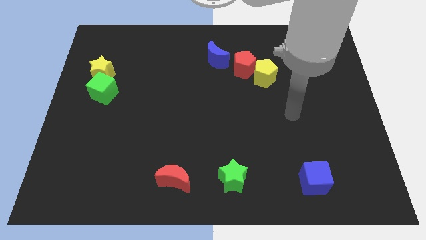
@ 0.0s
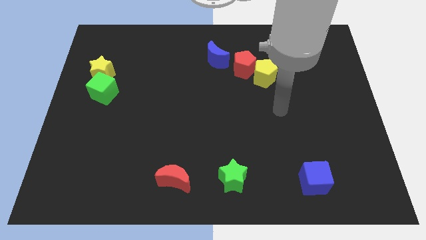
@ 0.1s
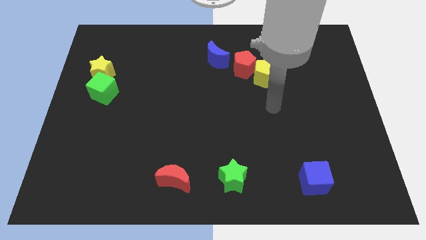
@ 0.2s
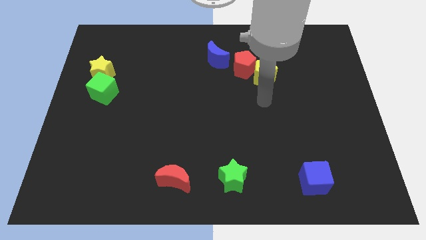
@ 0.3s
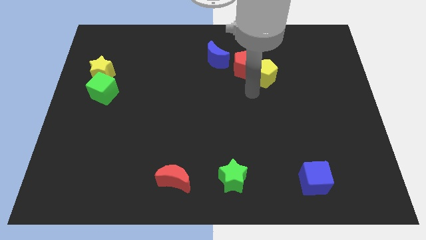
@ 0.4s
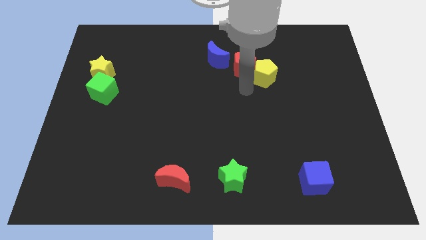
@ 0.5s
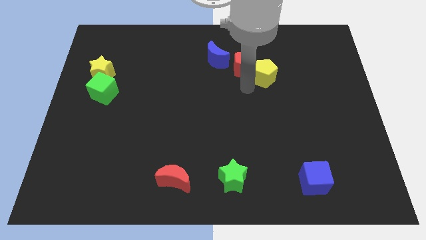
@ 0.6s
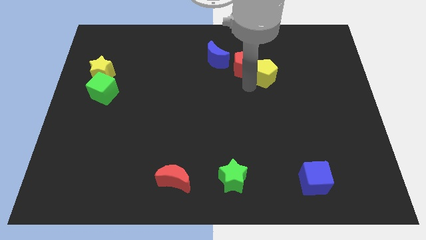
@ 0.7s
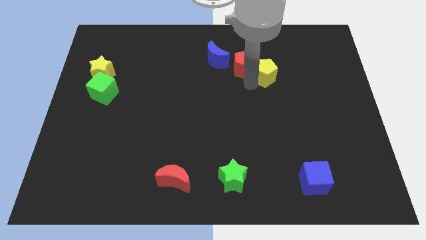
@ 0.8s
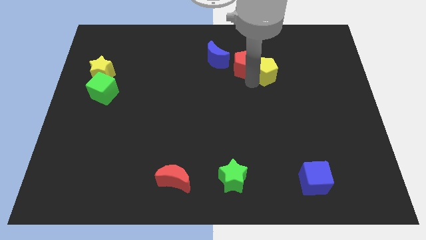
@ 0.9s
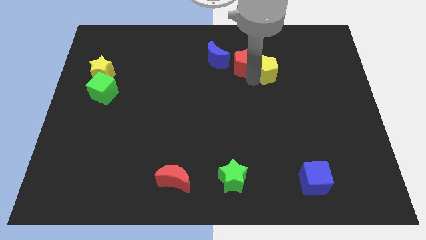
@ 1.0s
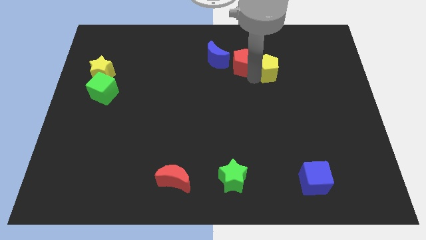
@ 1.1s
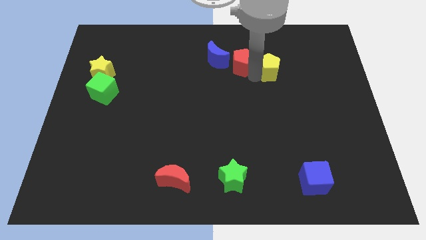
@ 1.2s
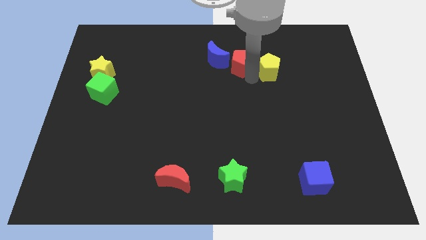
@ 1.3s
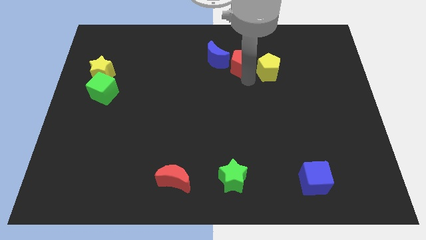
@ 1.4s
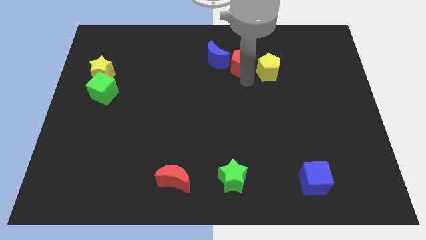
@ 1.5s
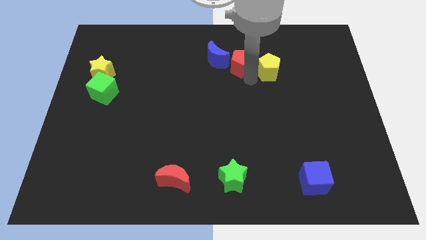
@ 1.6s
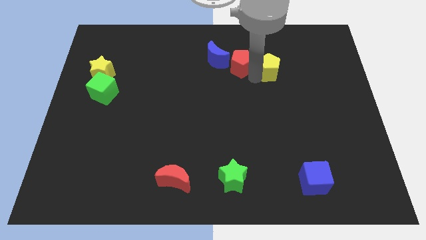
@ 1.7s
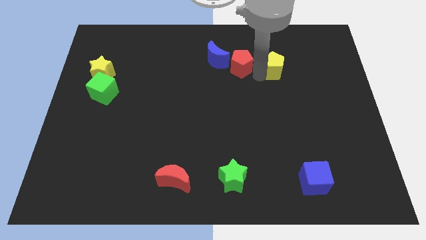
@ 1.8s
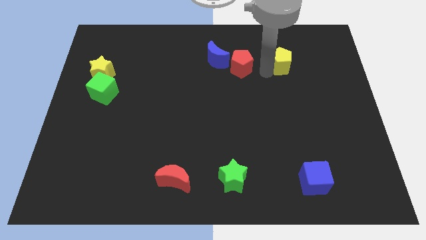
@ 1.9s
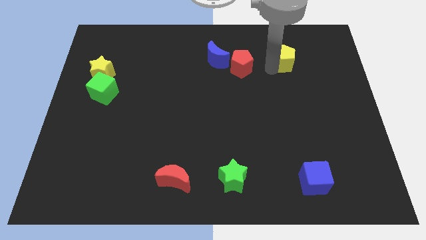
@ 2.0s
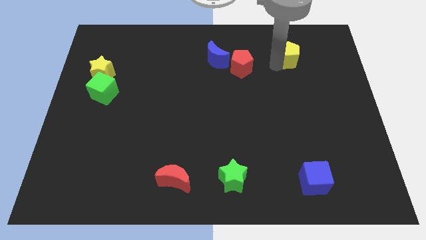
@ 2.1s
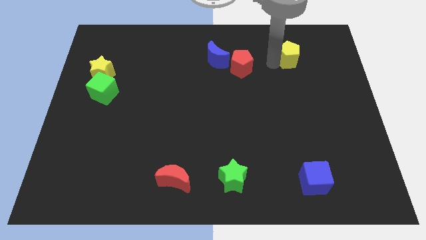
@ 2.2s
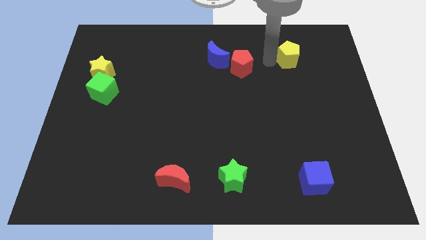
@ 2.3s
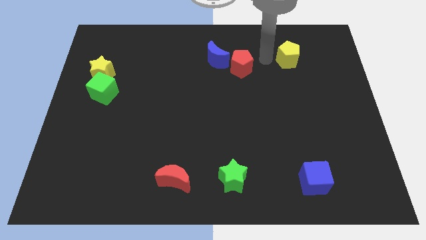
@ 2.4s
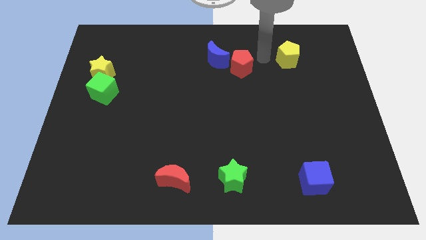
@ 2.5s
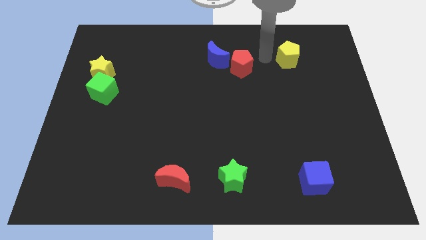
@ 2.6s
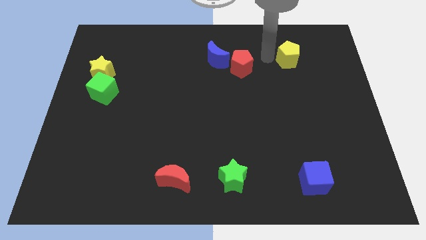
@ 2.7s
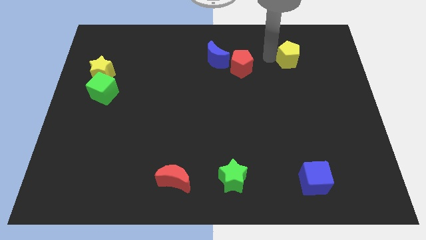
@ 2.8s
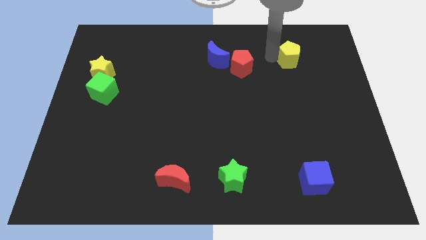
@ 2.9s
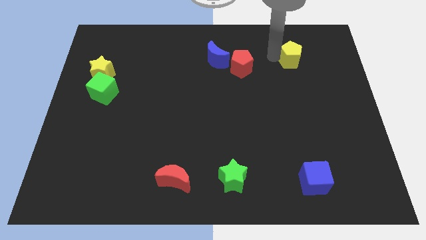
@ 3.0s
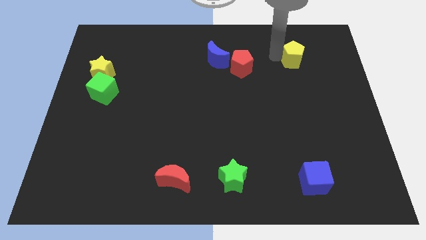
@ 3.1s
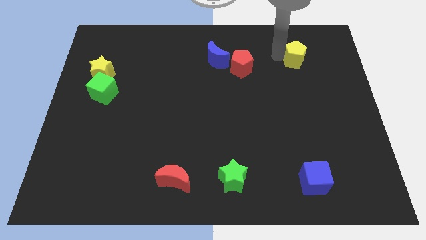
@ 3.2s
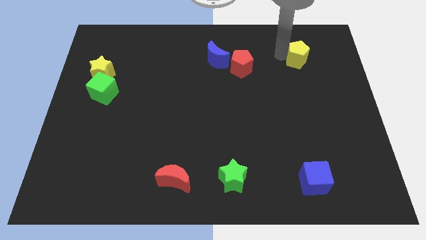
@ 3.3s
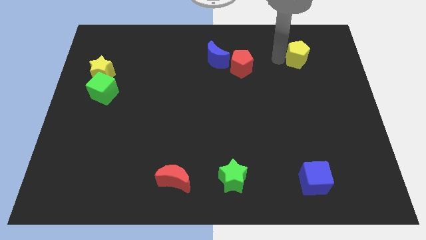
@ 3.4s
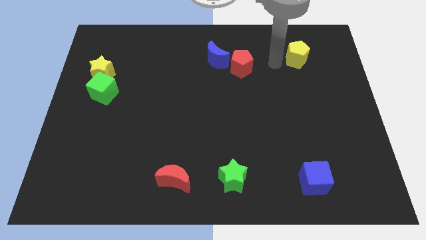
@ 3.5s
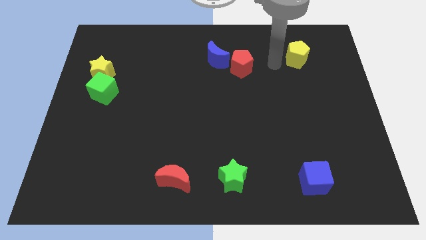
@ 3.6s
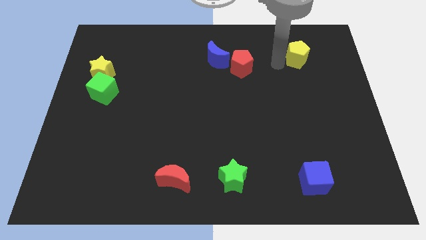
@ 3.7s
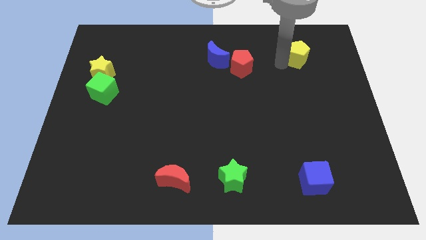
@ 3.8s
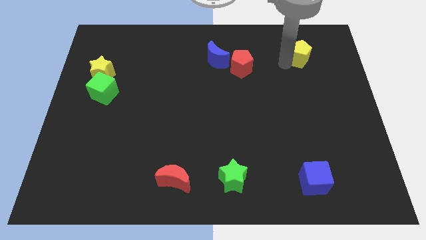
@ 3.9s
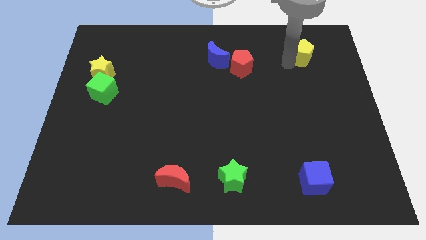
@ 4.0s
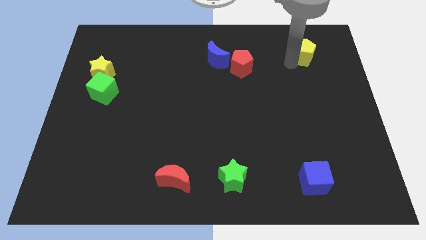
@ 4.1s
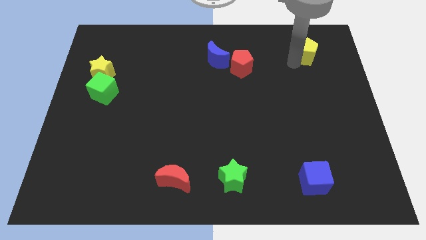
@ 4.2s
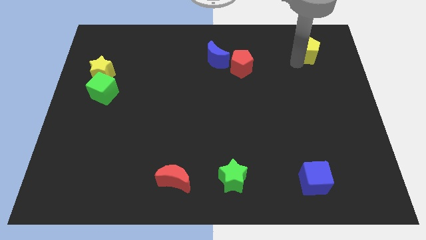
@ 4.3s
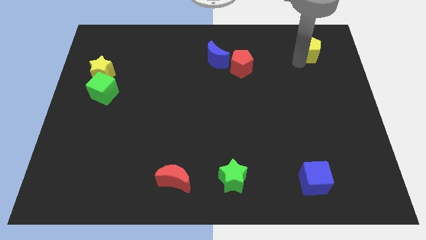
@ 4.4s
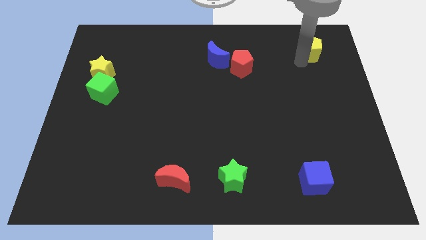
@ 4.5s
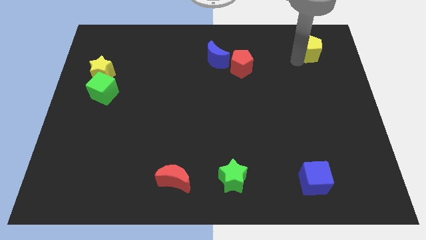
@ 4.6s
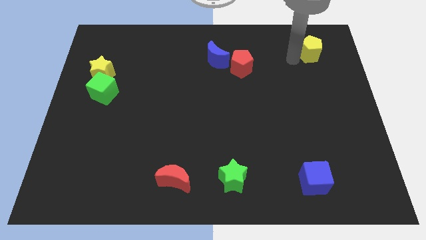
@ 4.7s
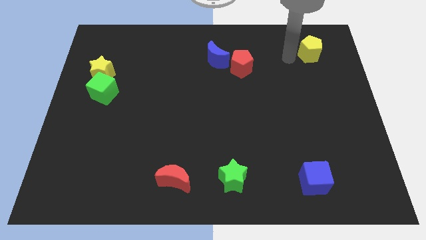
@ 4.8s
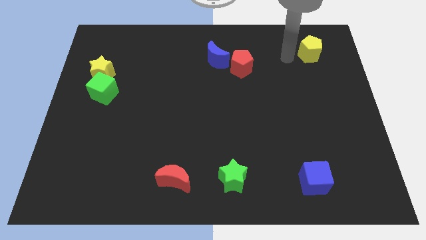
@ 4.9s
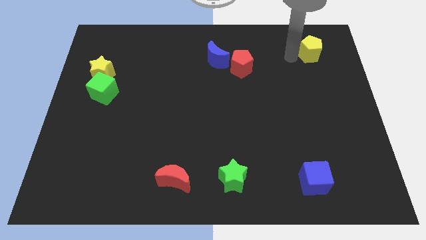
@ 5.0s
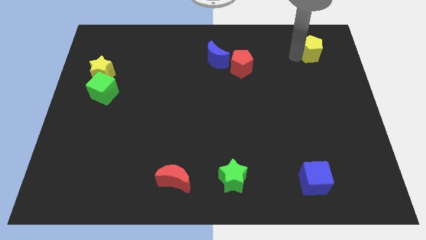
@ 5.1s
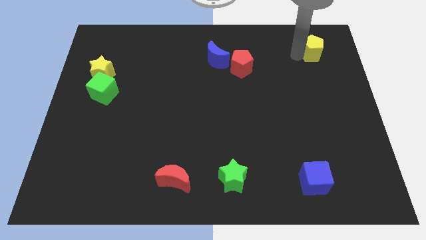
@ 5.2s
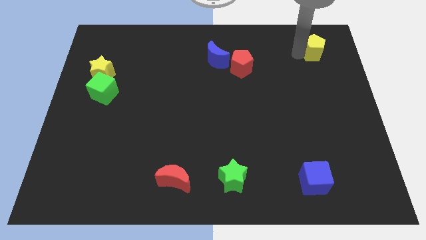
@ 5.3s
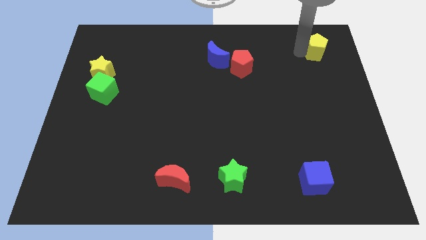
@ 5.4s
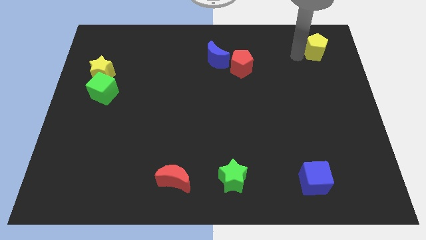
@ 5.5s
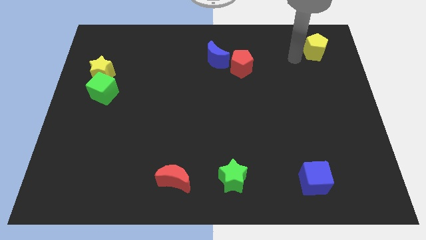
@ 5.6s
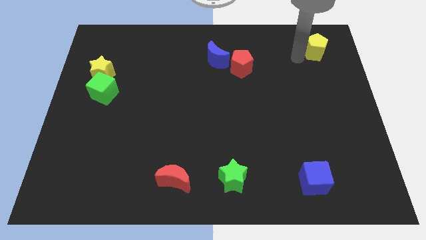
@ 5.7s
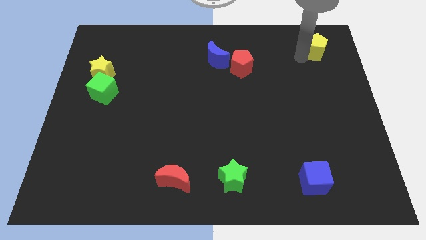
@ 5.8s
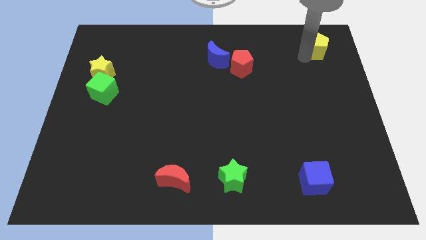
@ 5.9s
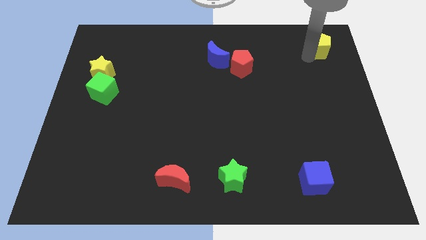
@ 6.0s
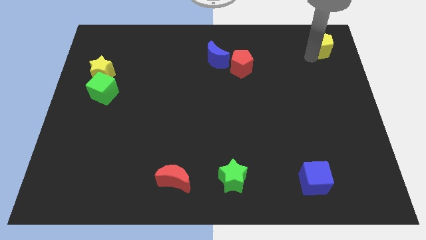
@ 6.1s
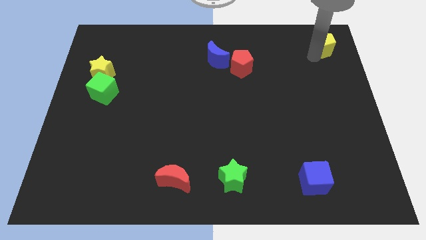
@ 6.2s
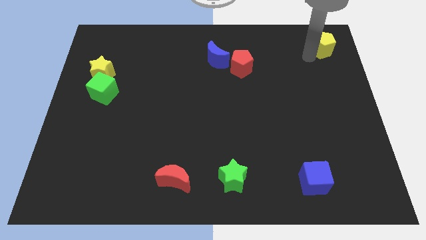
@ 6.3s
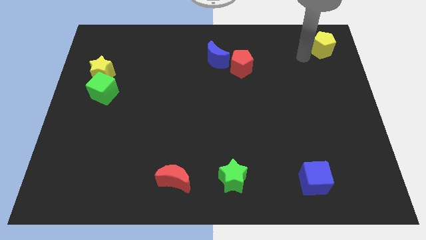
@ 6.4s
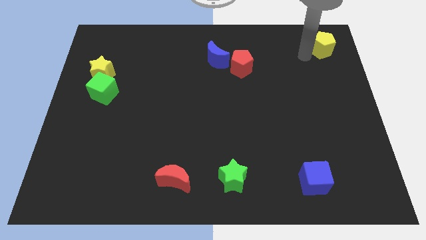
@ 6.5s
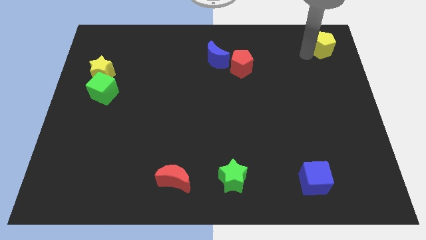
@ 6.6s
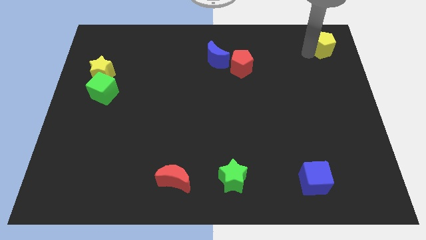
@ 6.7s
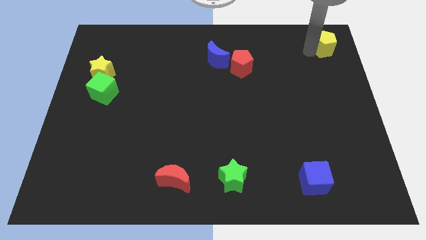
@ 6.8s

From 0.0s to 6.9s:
put the yellow pentagon to the top right of the board
